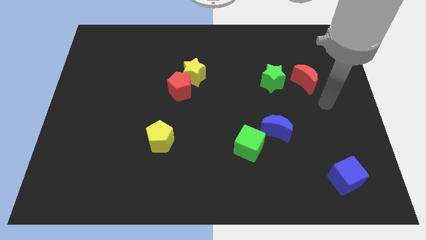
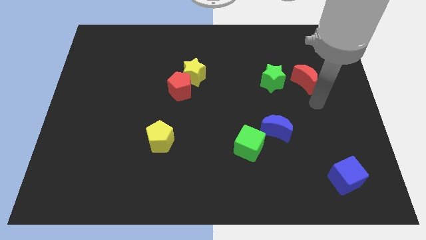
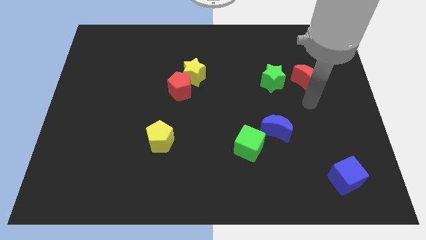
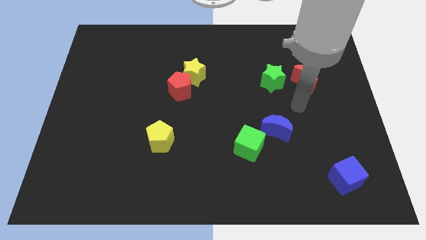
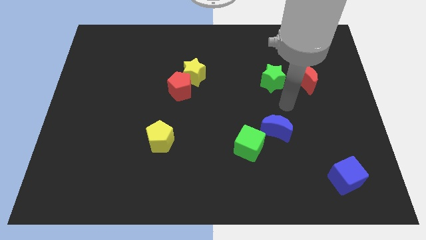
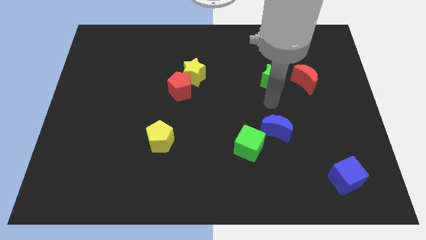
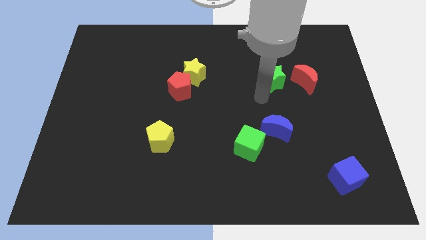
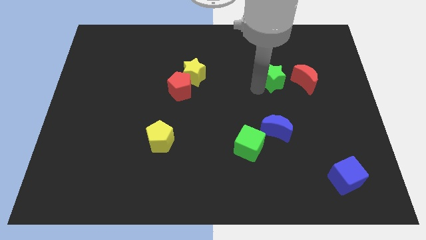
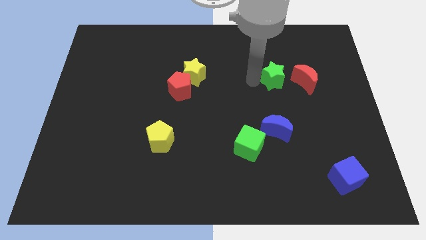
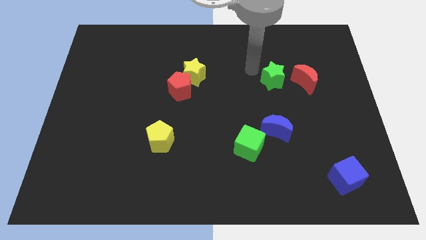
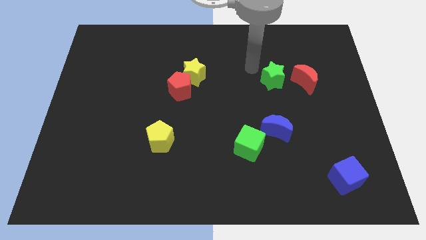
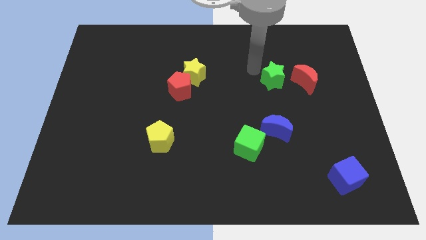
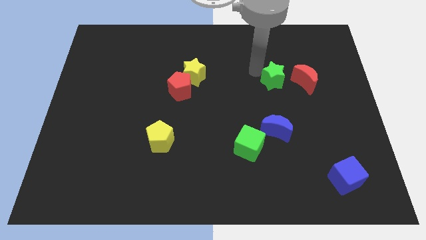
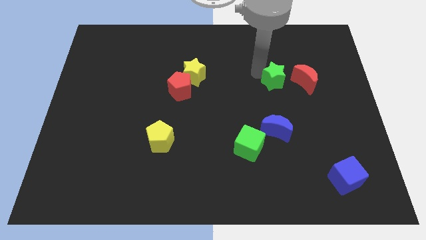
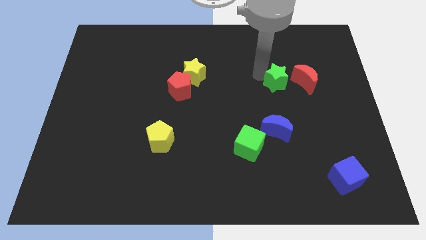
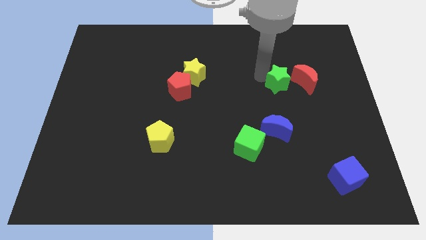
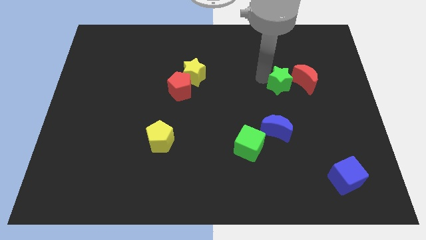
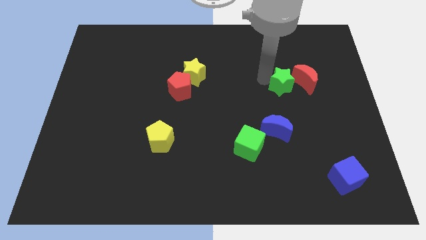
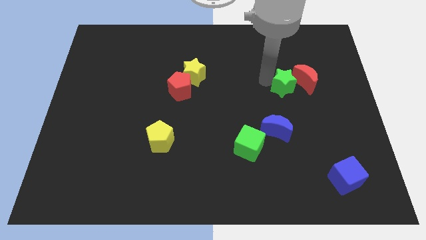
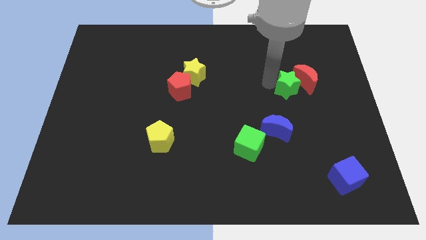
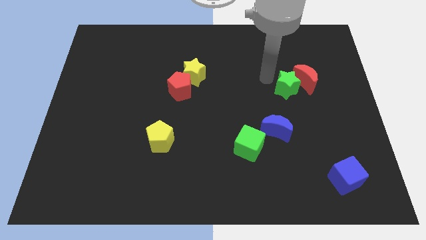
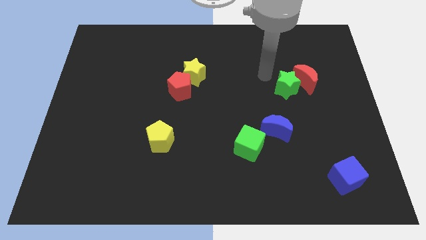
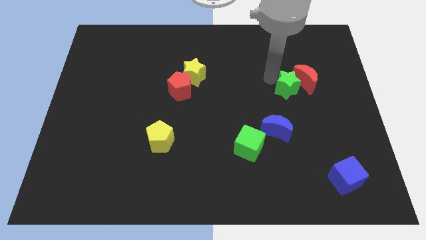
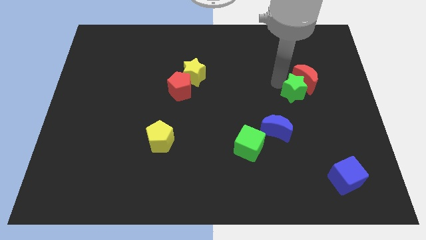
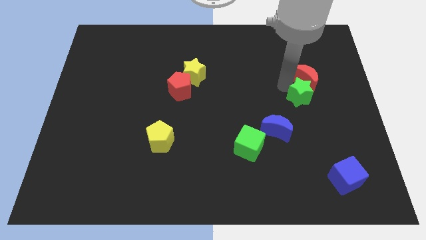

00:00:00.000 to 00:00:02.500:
slide the green star a bit downwards and to the right

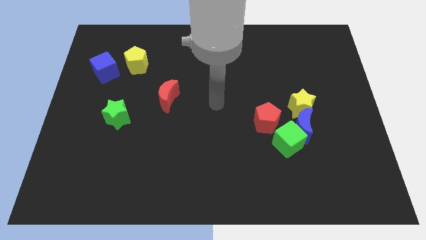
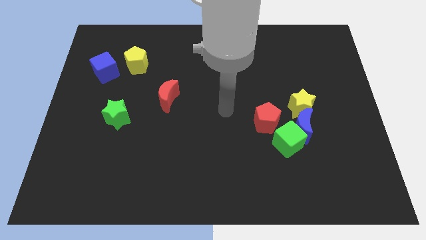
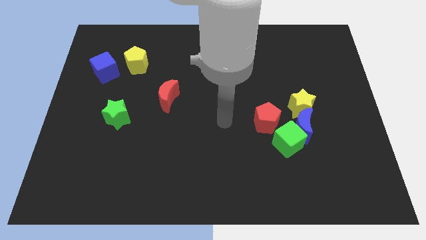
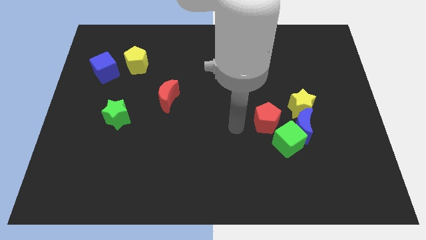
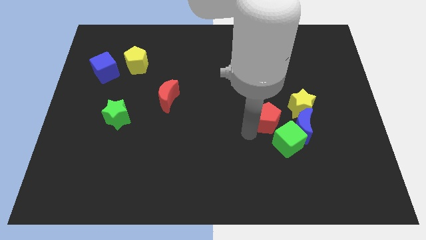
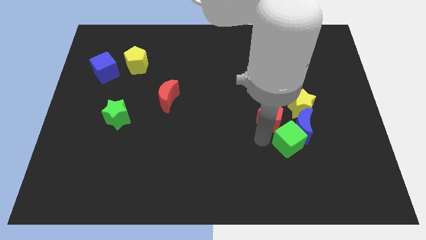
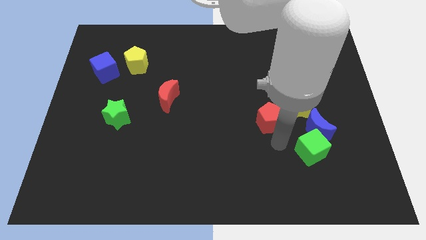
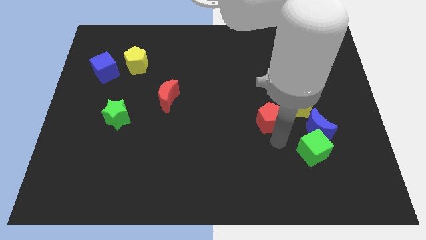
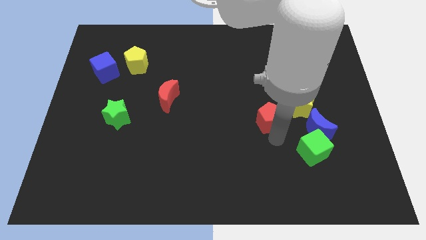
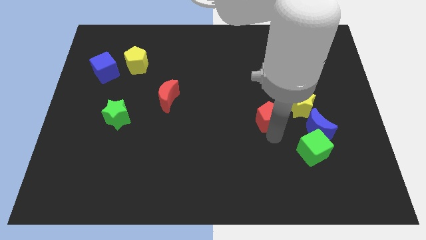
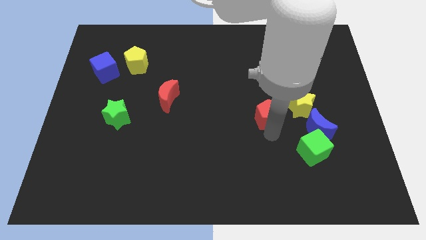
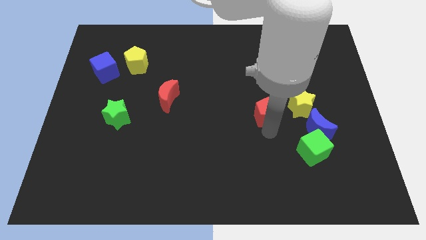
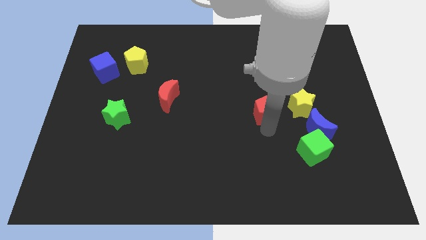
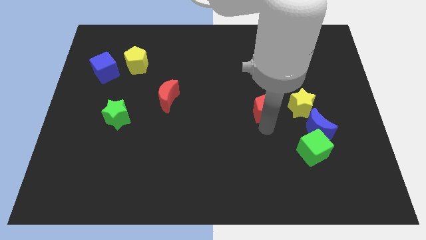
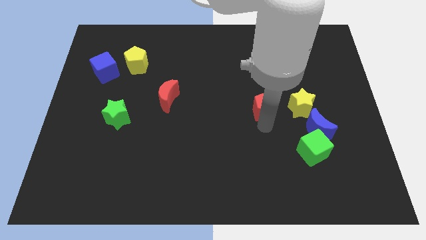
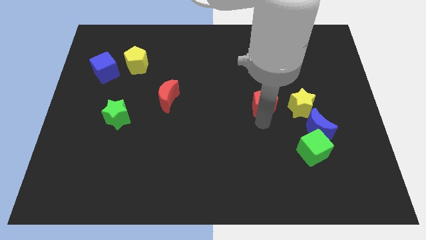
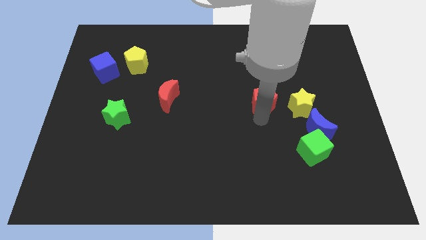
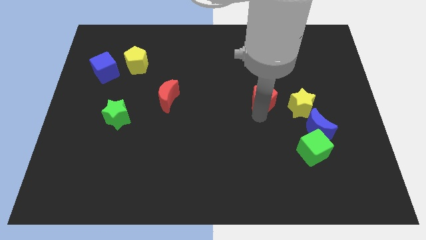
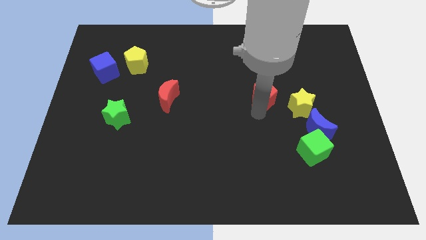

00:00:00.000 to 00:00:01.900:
slightly push the red pentagon up

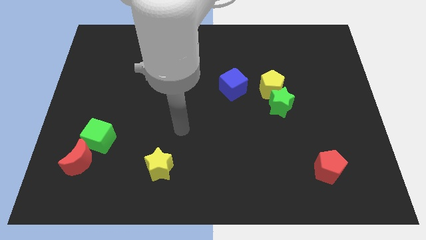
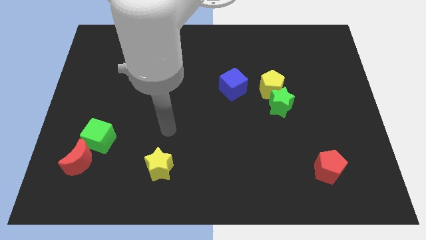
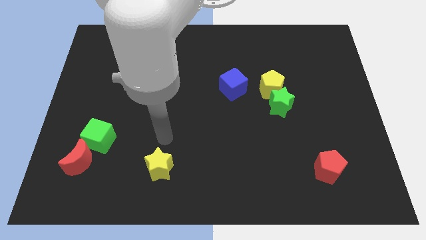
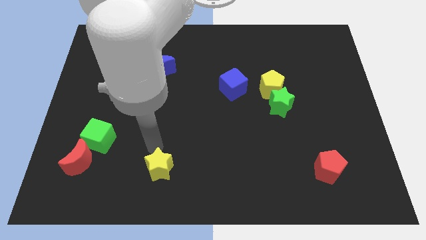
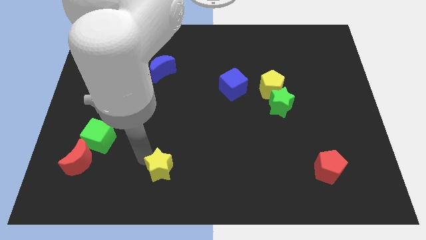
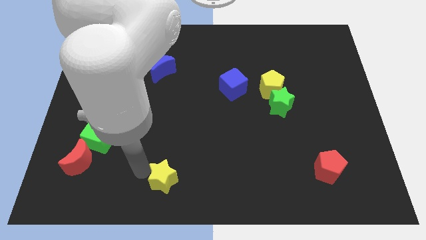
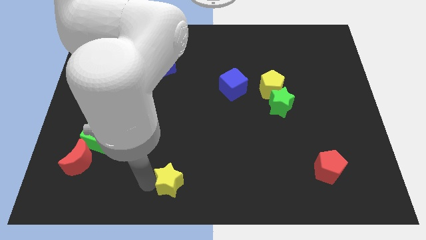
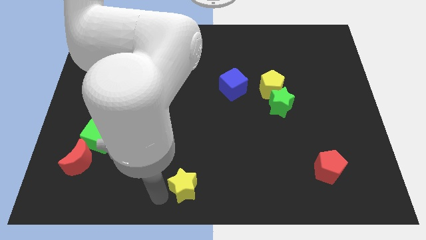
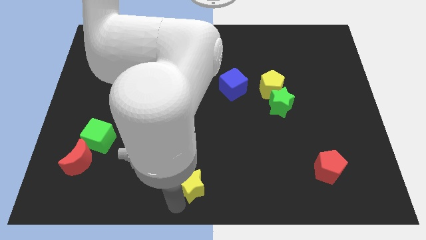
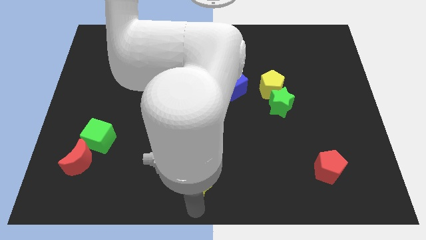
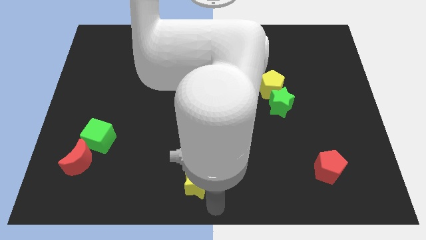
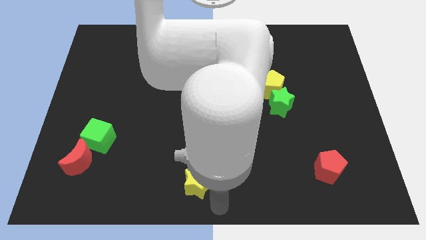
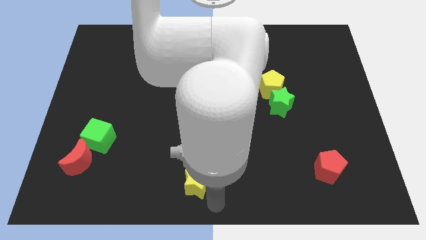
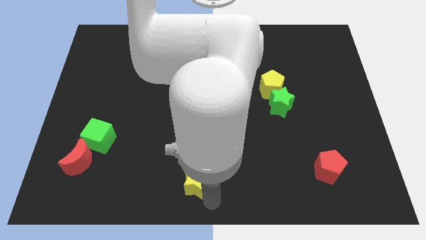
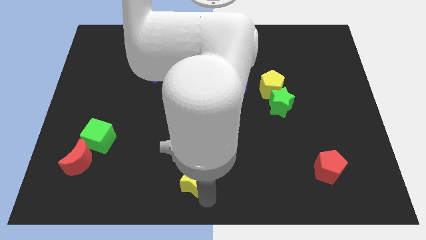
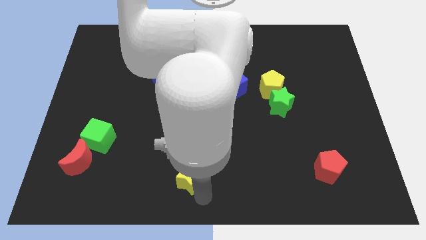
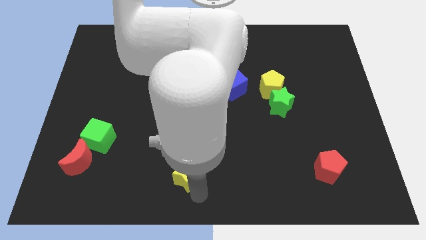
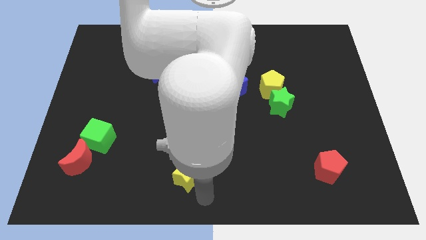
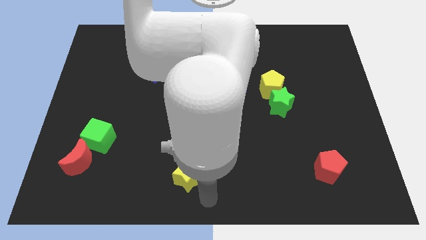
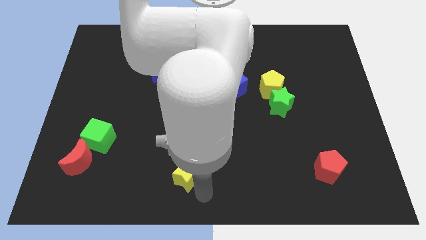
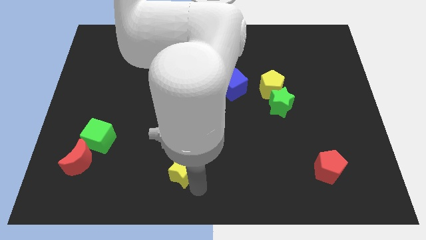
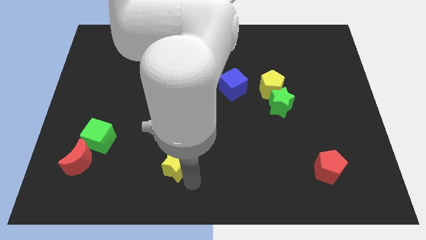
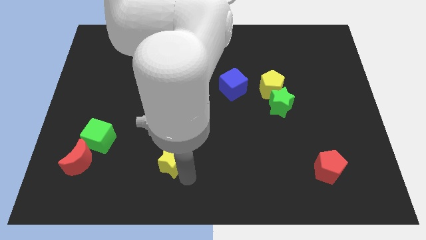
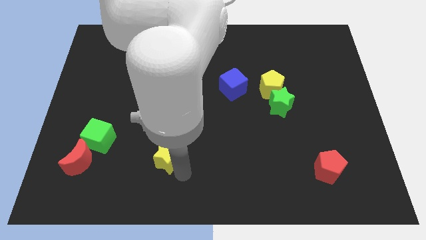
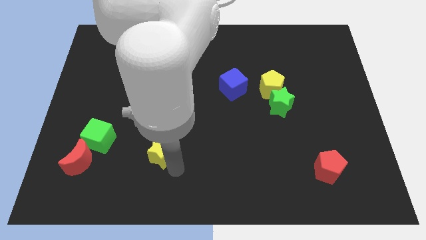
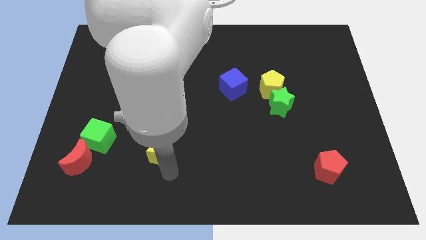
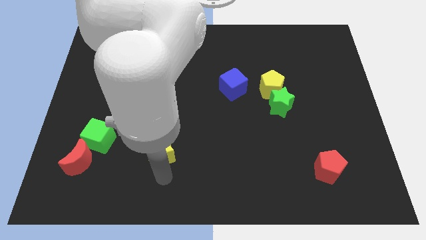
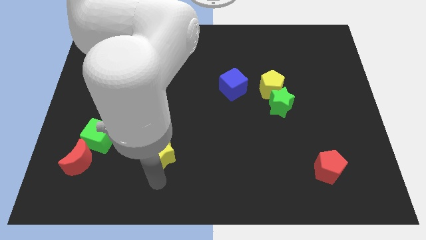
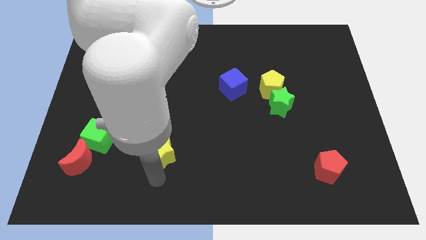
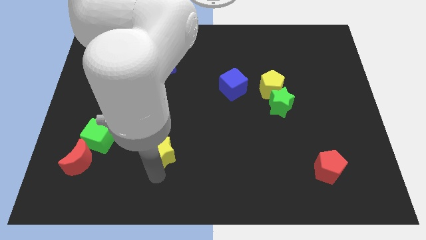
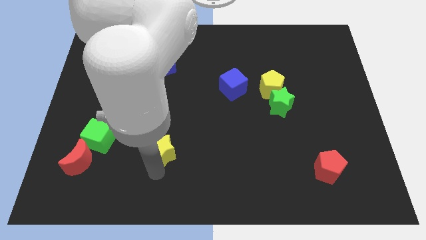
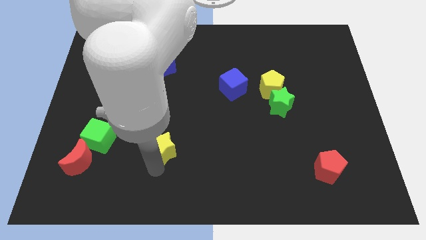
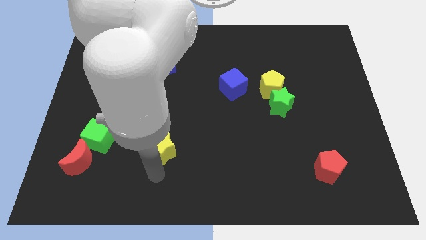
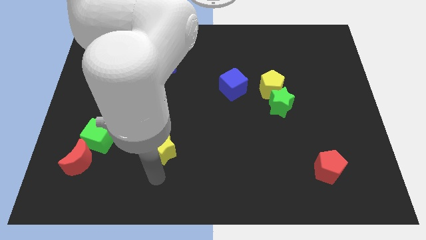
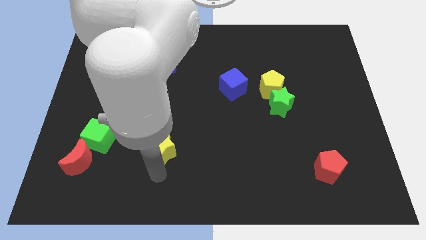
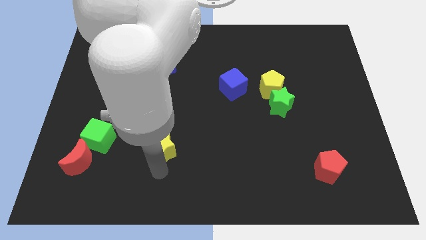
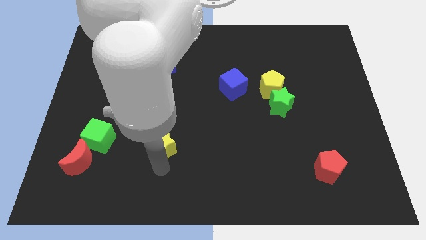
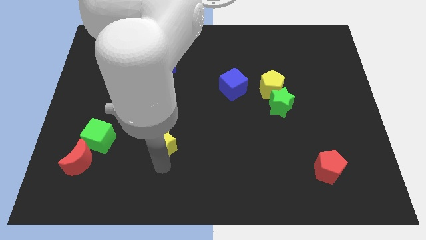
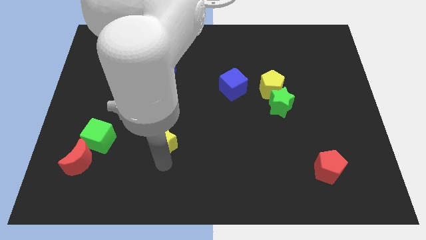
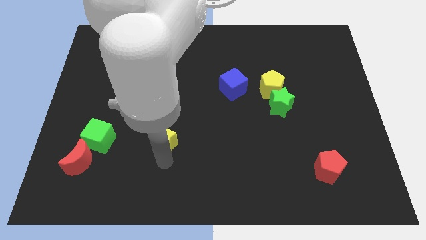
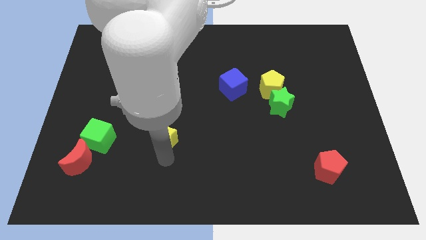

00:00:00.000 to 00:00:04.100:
slightly move the yellow star upwards
